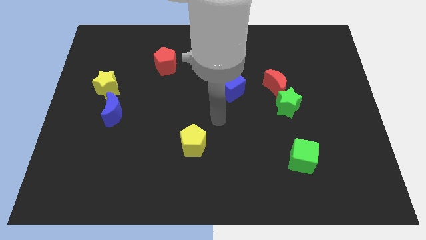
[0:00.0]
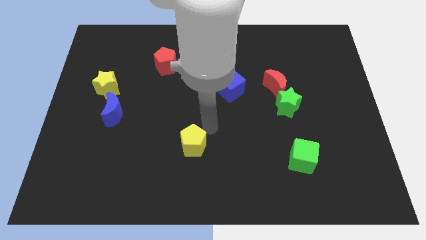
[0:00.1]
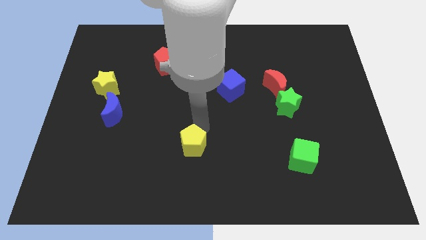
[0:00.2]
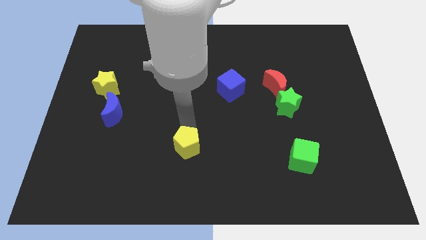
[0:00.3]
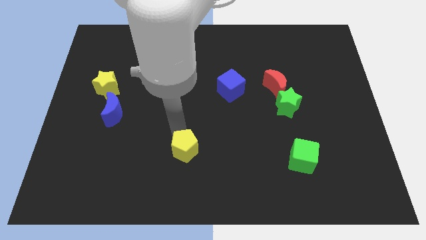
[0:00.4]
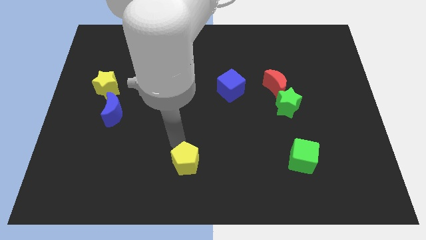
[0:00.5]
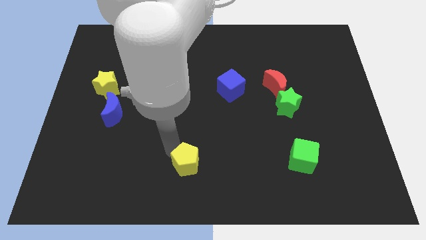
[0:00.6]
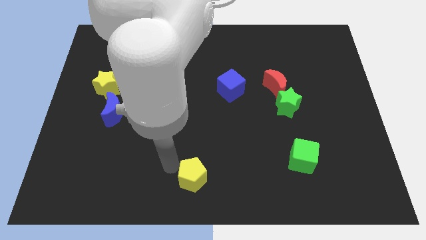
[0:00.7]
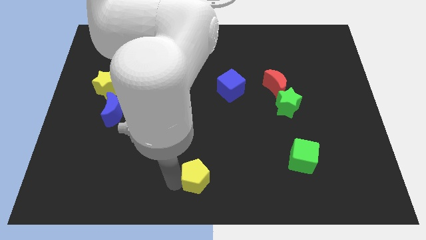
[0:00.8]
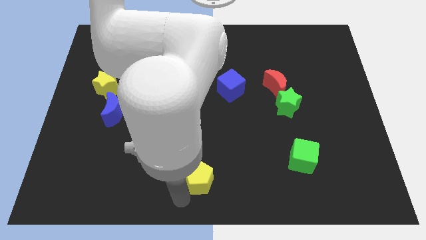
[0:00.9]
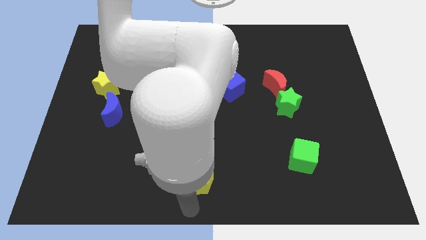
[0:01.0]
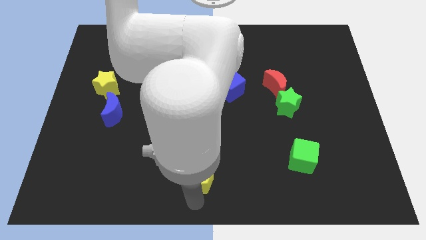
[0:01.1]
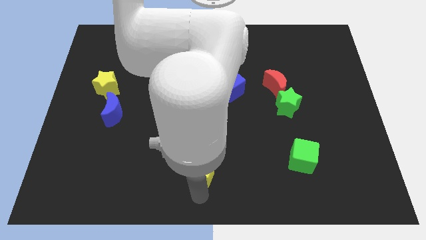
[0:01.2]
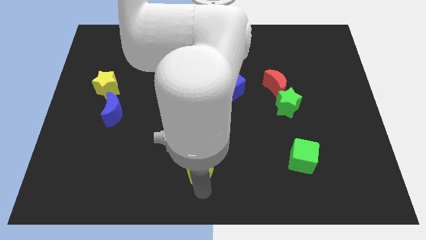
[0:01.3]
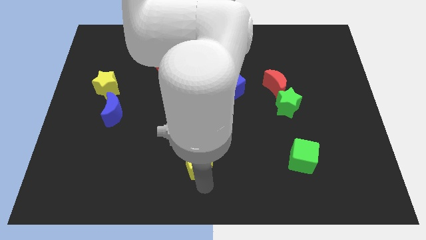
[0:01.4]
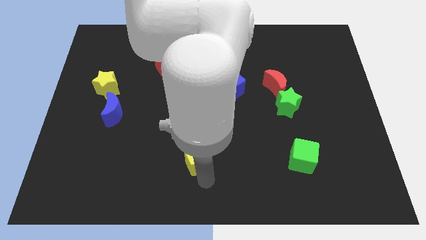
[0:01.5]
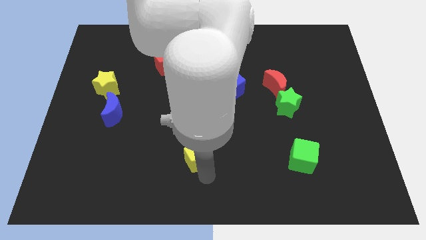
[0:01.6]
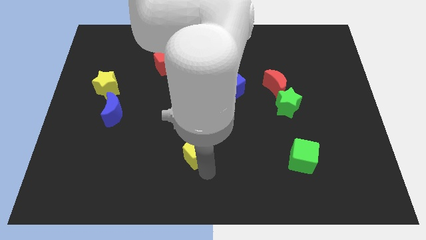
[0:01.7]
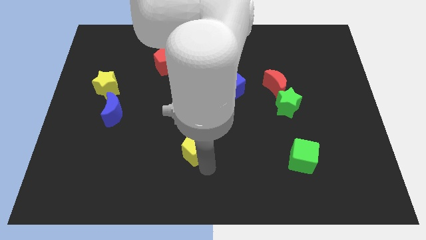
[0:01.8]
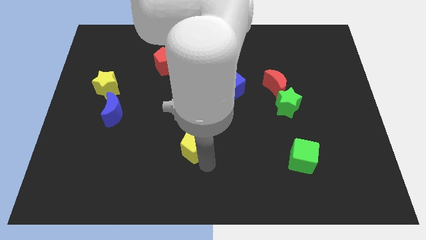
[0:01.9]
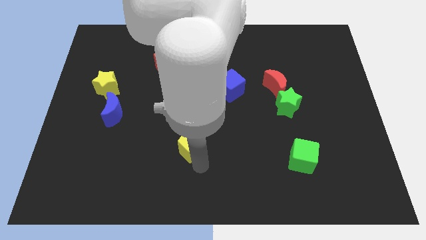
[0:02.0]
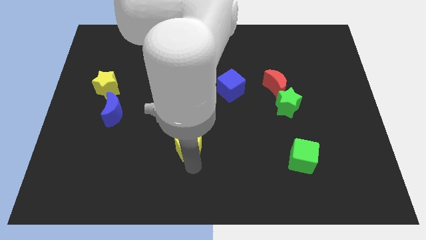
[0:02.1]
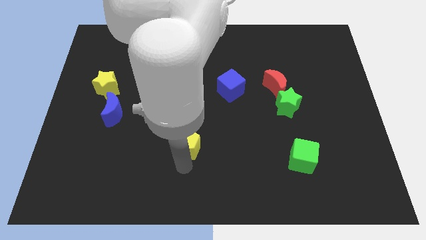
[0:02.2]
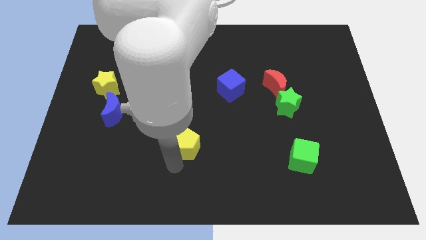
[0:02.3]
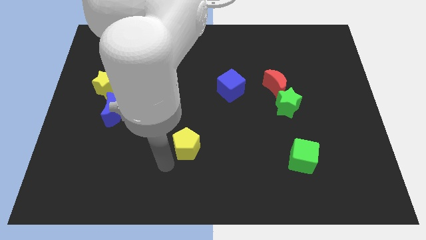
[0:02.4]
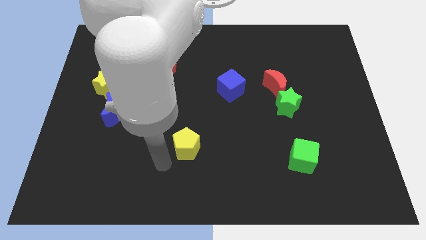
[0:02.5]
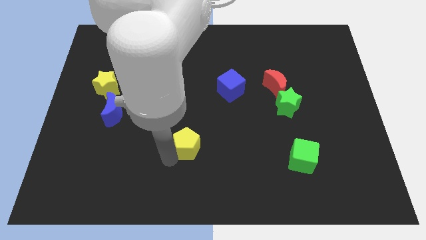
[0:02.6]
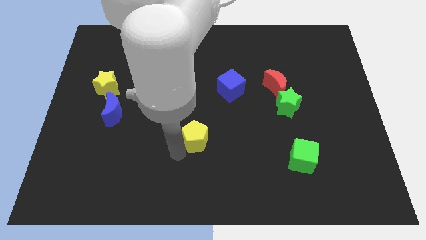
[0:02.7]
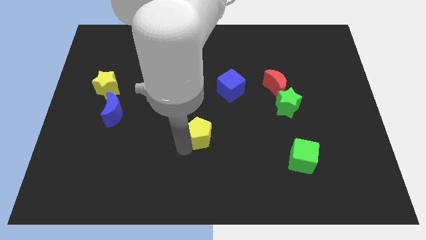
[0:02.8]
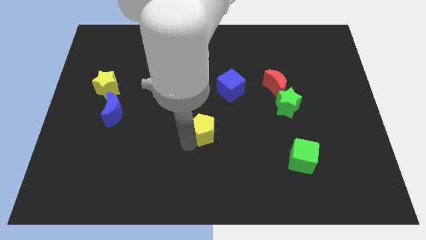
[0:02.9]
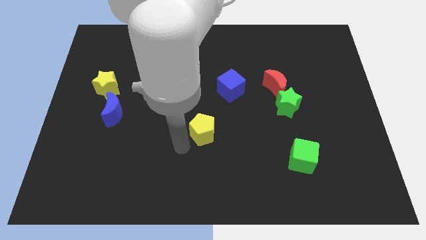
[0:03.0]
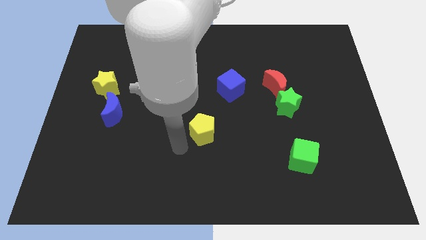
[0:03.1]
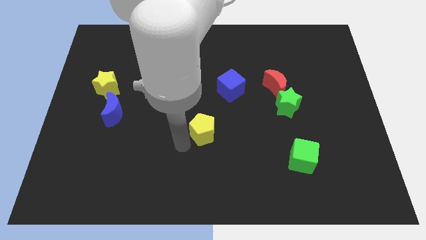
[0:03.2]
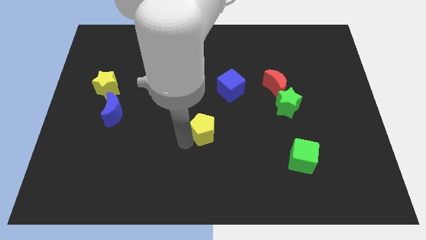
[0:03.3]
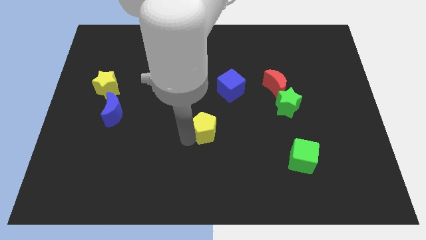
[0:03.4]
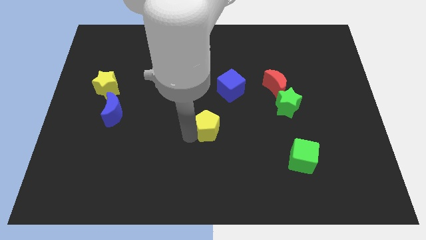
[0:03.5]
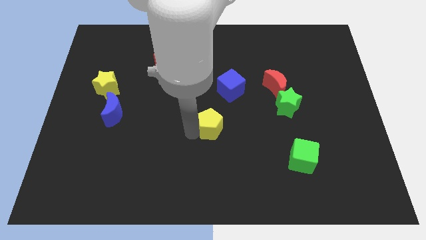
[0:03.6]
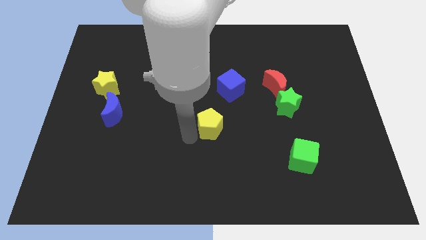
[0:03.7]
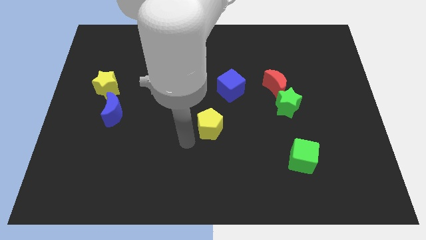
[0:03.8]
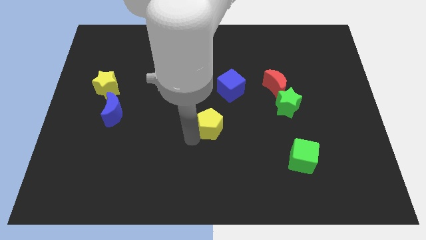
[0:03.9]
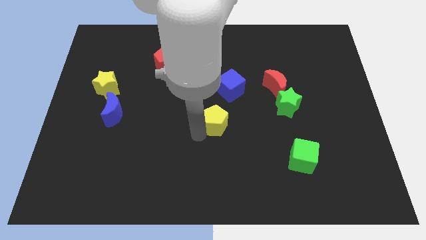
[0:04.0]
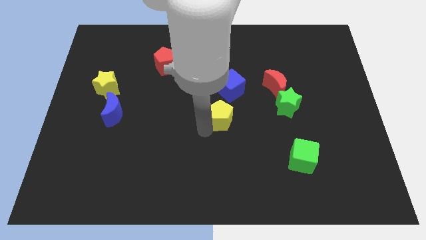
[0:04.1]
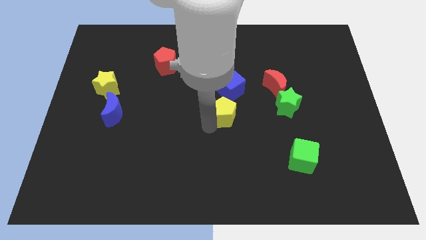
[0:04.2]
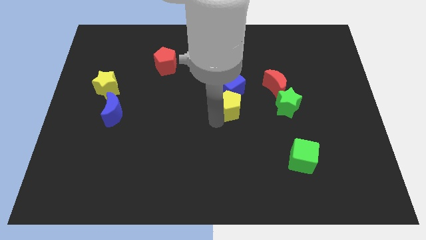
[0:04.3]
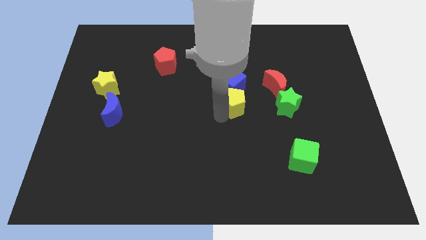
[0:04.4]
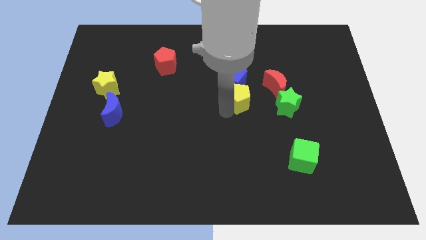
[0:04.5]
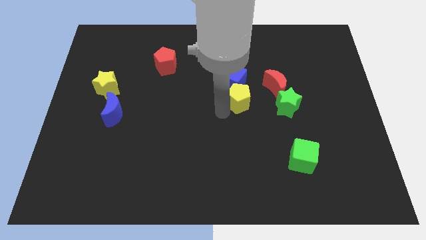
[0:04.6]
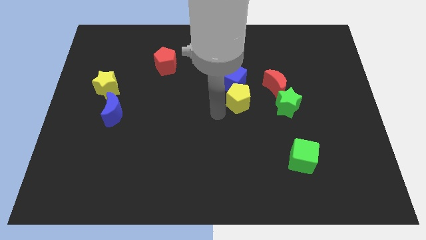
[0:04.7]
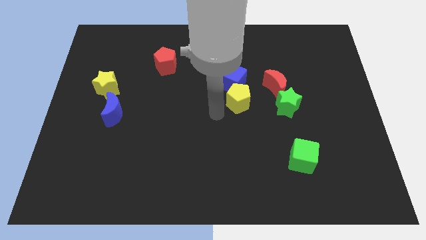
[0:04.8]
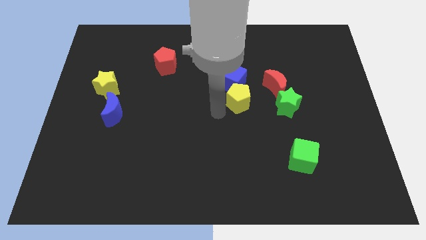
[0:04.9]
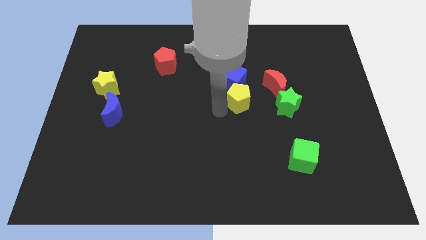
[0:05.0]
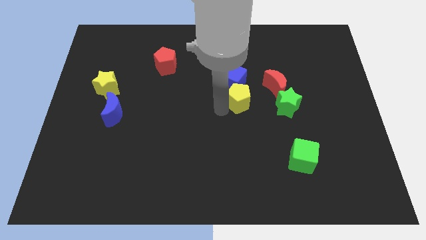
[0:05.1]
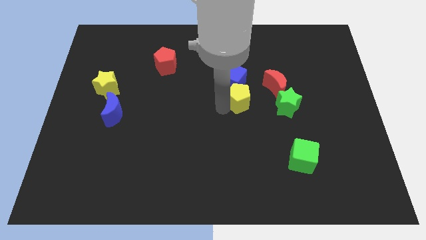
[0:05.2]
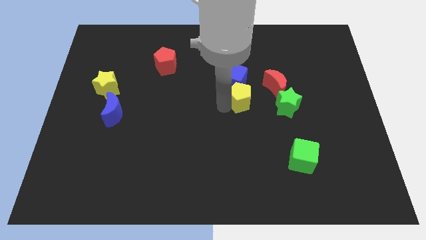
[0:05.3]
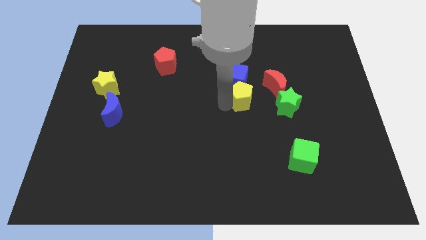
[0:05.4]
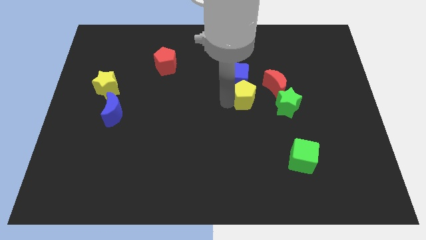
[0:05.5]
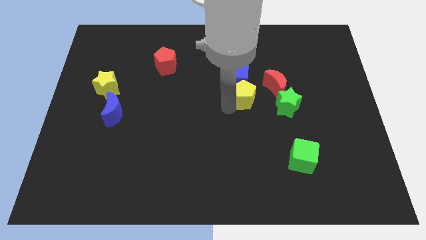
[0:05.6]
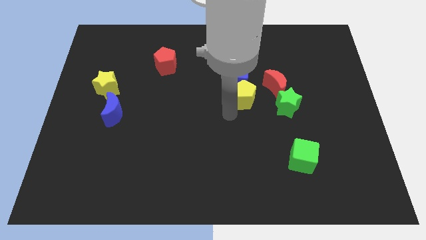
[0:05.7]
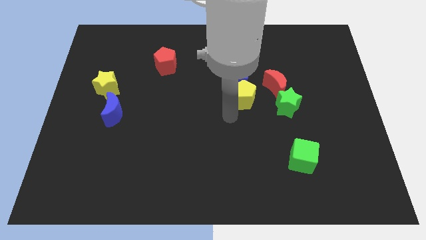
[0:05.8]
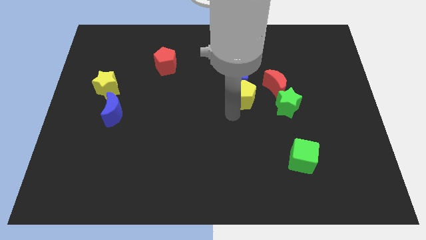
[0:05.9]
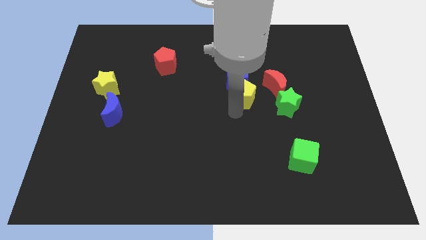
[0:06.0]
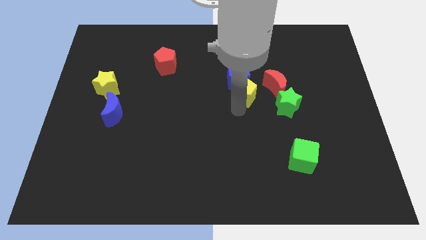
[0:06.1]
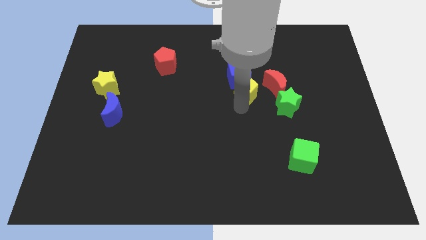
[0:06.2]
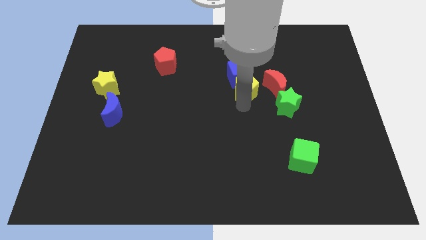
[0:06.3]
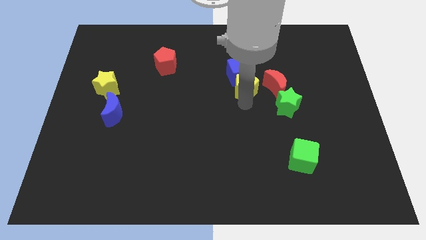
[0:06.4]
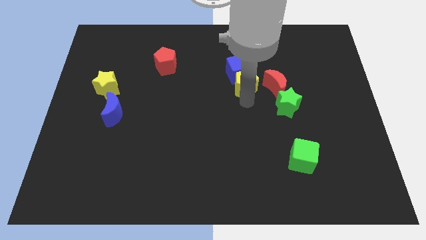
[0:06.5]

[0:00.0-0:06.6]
move the yellow pentagon up and to the right

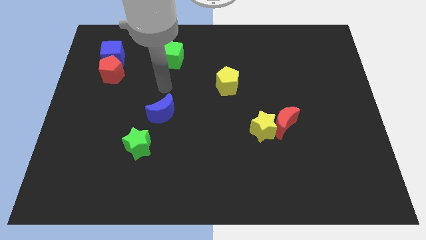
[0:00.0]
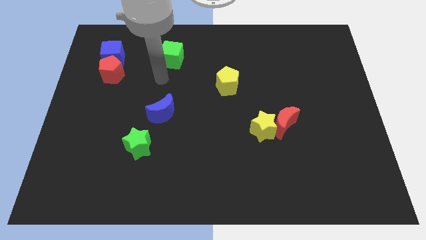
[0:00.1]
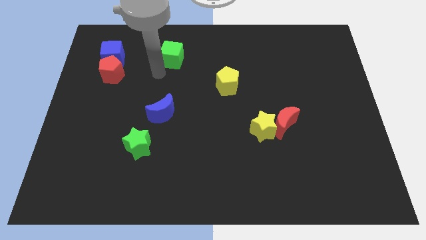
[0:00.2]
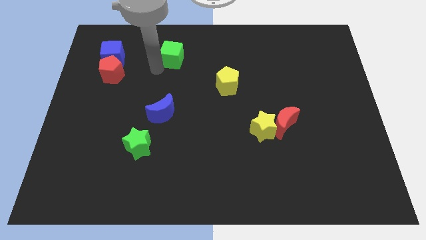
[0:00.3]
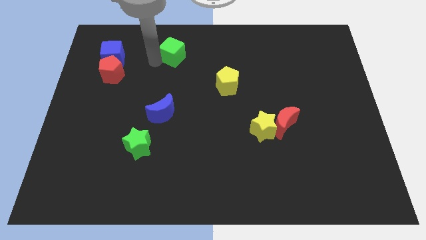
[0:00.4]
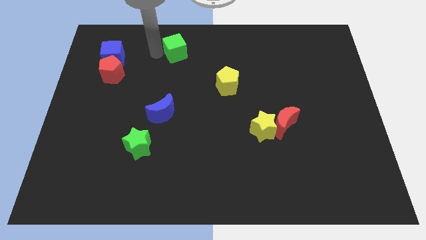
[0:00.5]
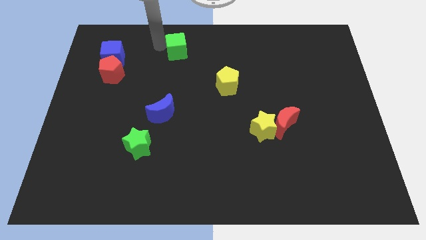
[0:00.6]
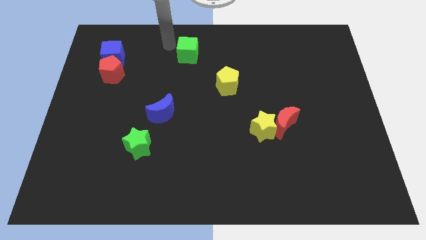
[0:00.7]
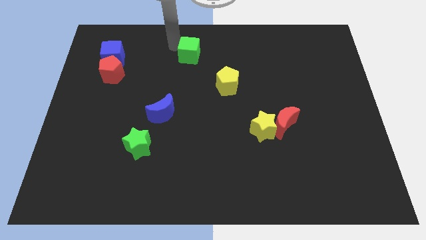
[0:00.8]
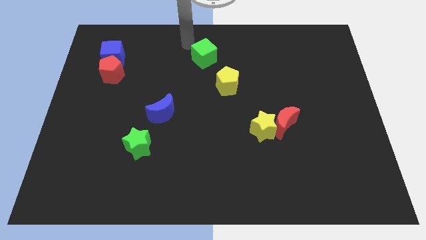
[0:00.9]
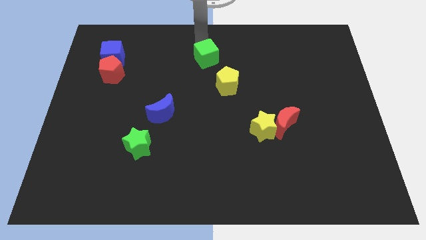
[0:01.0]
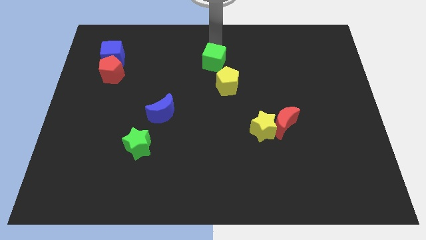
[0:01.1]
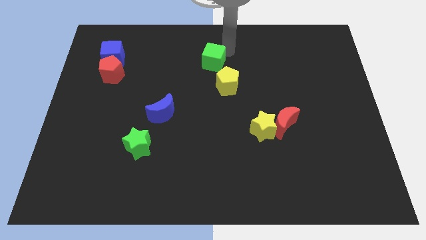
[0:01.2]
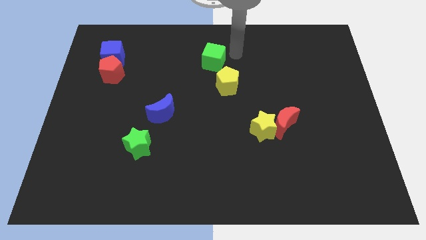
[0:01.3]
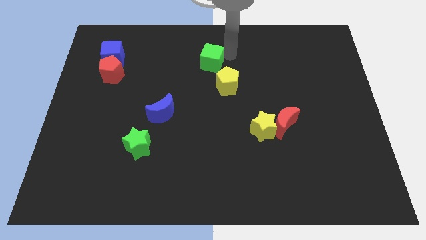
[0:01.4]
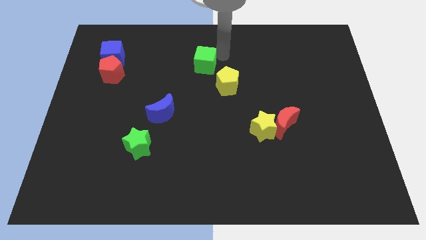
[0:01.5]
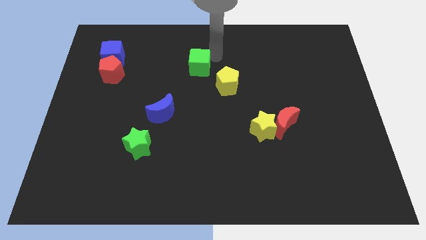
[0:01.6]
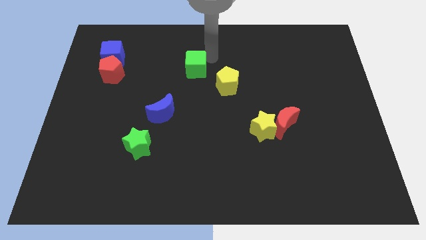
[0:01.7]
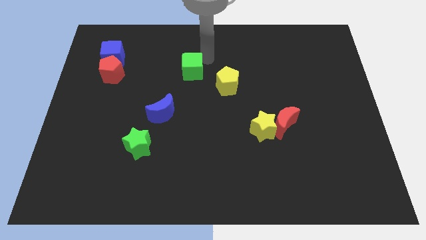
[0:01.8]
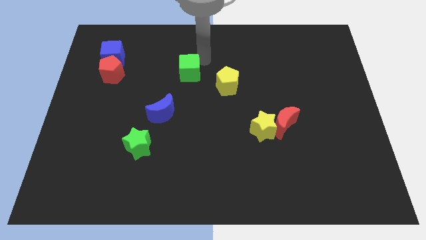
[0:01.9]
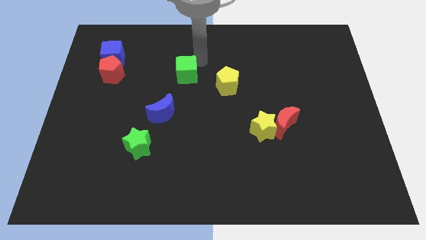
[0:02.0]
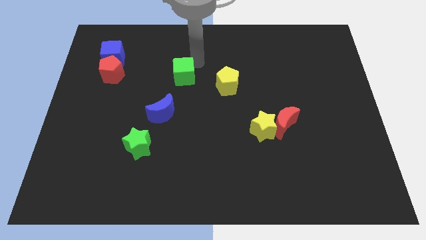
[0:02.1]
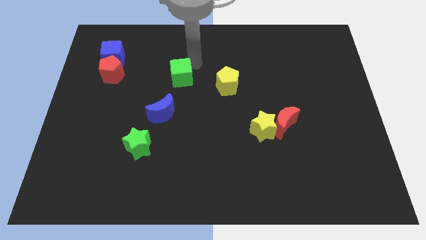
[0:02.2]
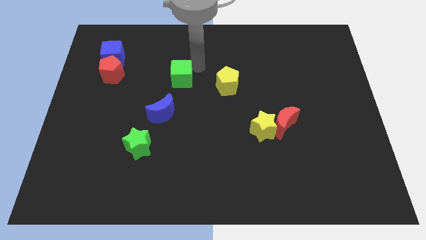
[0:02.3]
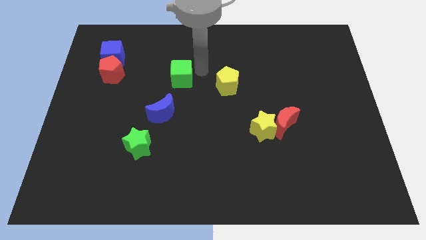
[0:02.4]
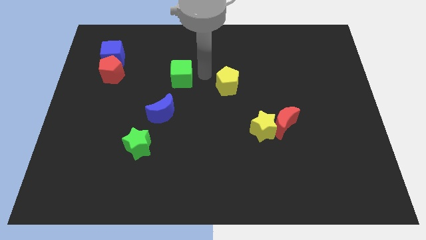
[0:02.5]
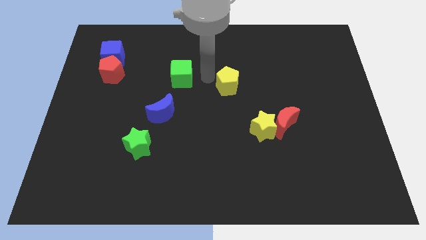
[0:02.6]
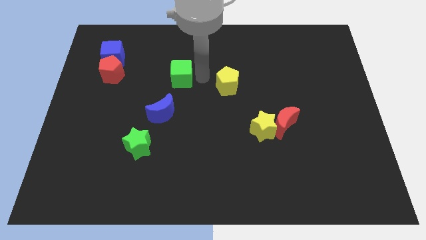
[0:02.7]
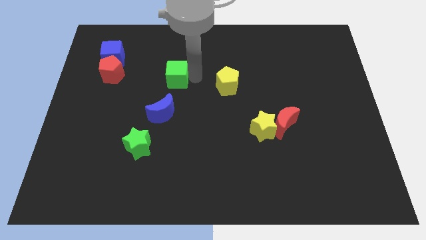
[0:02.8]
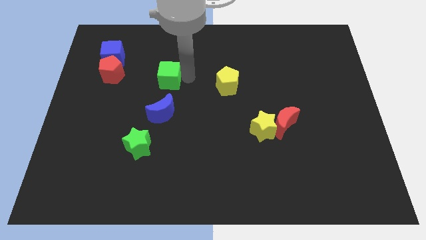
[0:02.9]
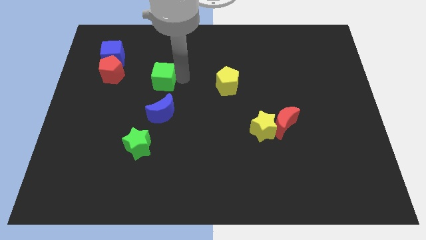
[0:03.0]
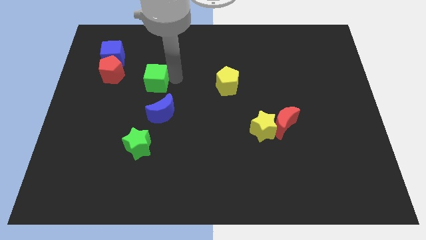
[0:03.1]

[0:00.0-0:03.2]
slide the green cube somewhat down and to the left diagonally
